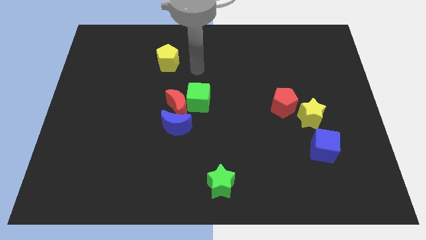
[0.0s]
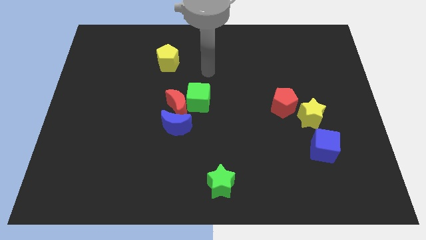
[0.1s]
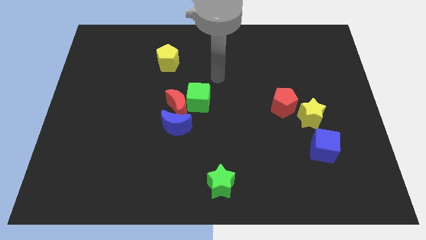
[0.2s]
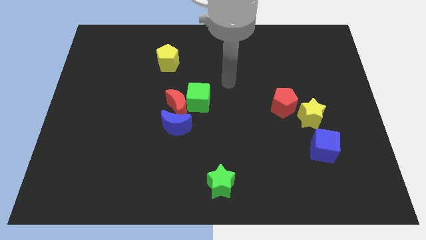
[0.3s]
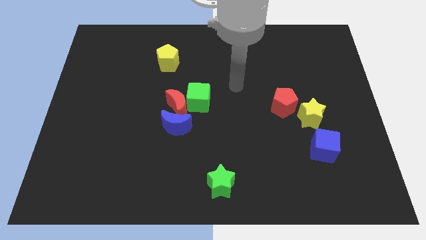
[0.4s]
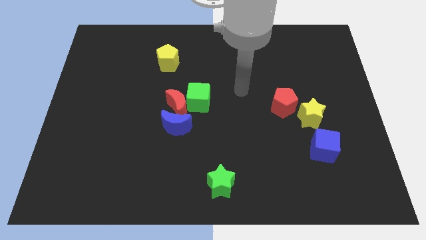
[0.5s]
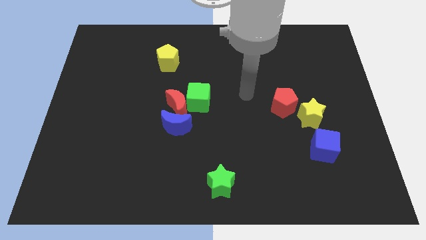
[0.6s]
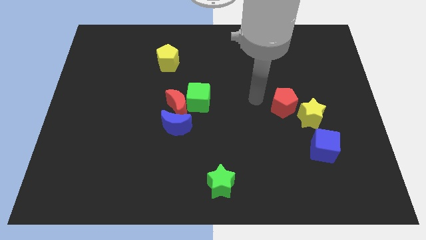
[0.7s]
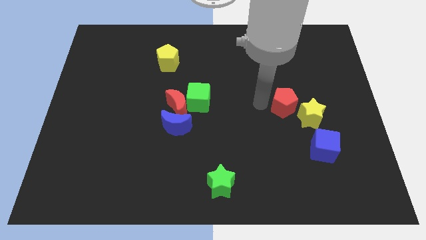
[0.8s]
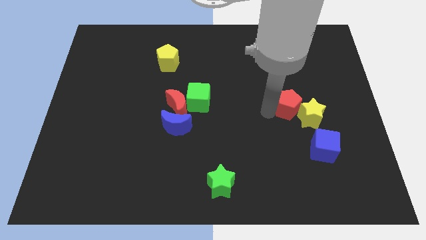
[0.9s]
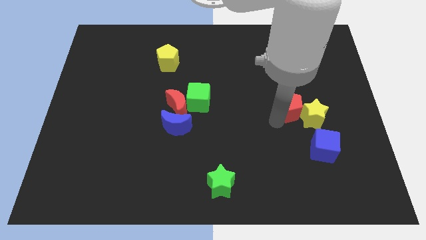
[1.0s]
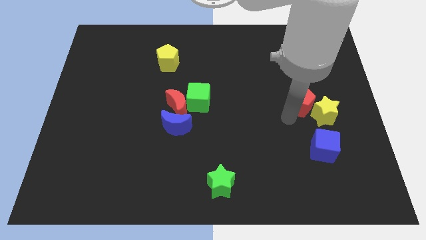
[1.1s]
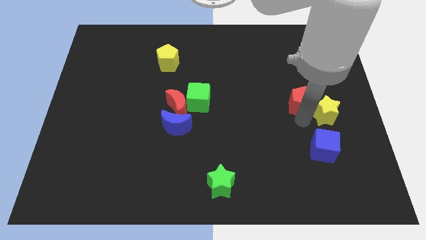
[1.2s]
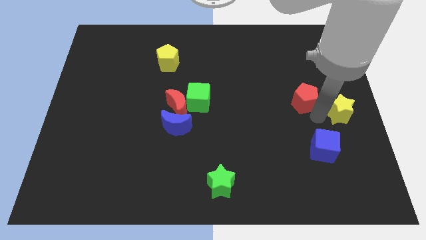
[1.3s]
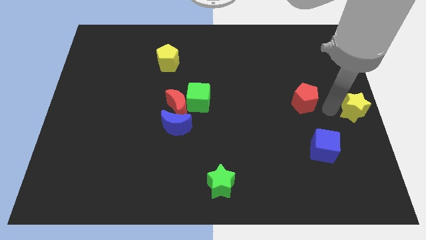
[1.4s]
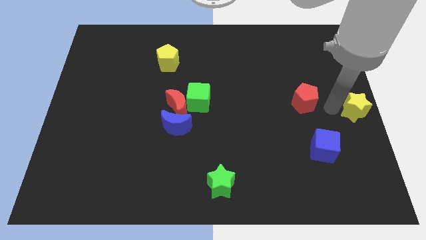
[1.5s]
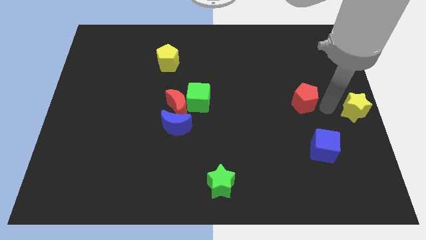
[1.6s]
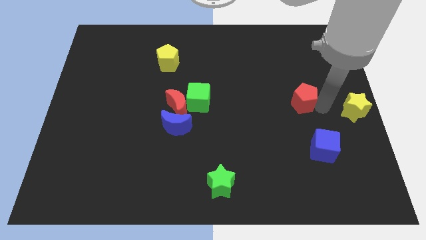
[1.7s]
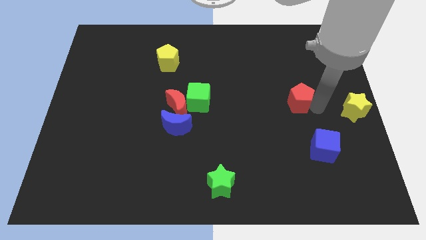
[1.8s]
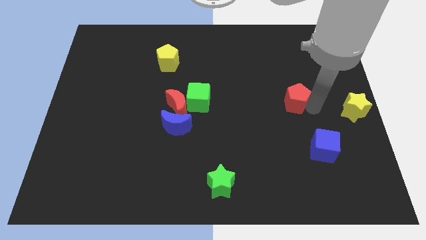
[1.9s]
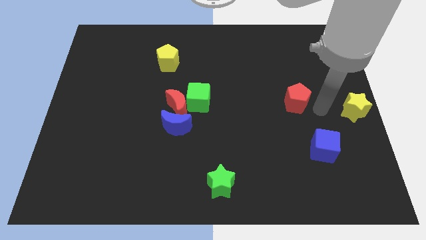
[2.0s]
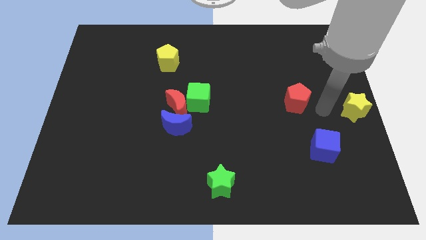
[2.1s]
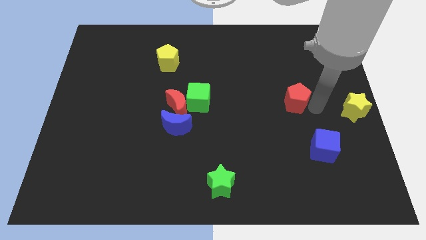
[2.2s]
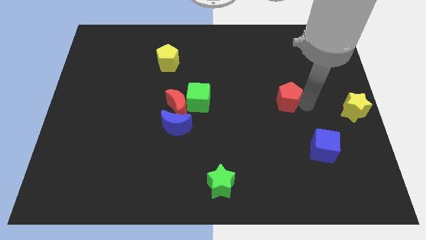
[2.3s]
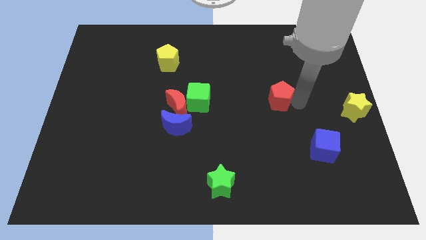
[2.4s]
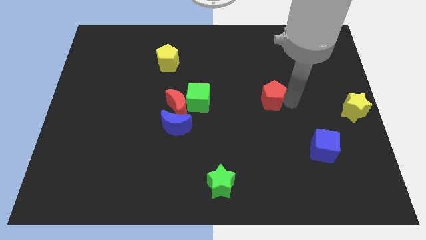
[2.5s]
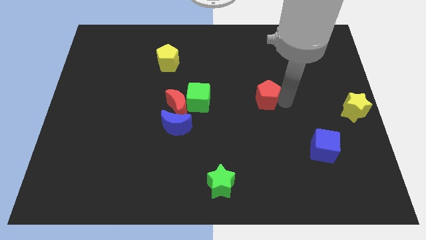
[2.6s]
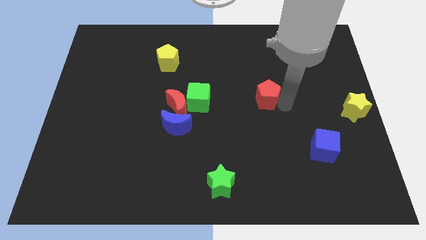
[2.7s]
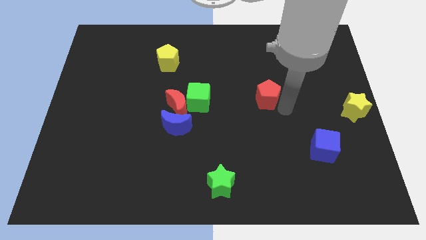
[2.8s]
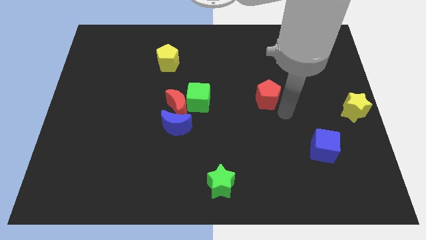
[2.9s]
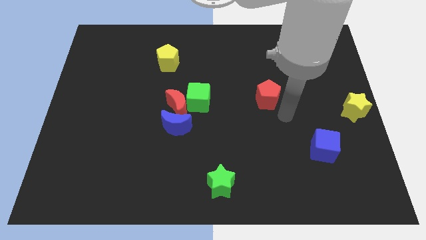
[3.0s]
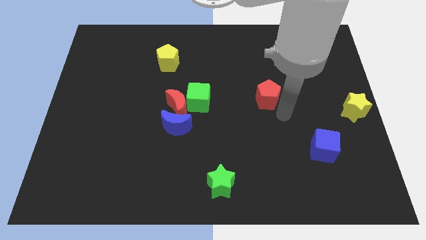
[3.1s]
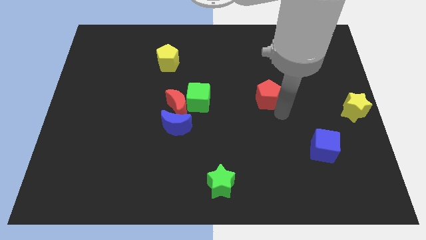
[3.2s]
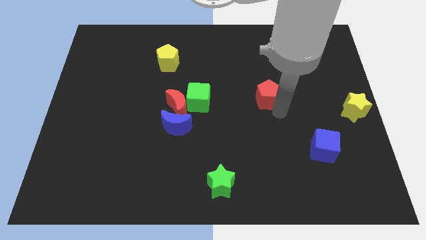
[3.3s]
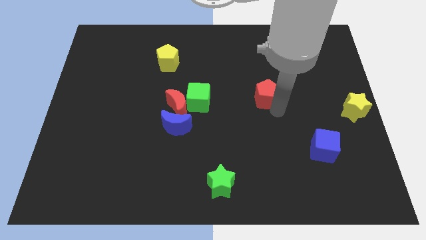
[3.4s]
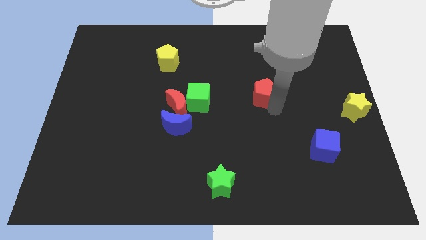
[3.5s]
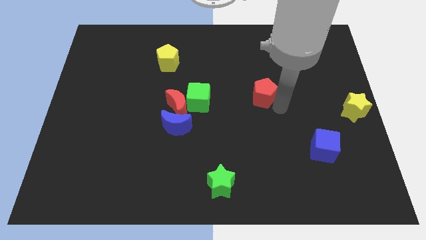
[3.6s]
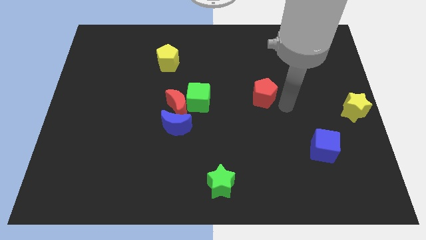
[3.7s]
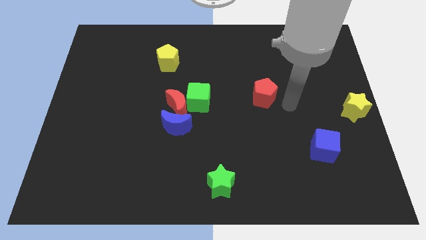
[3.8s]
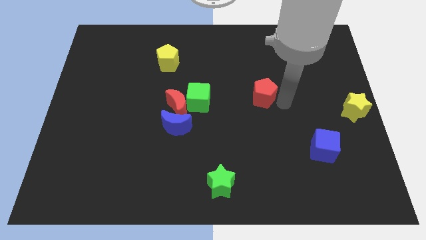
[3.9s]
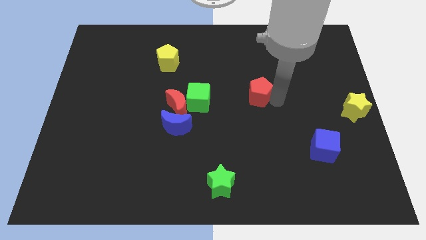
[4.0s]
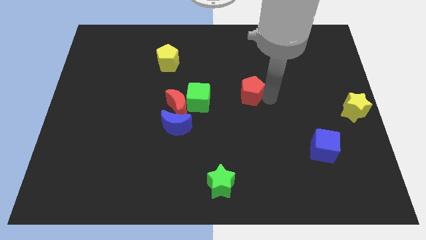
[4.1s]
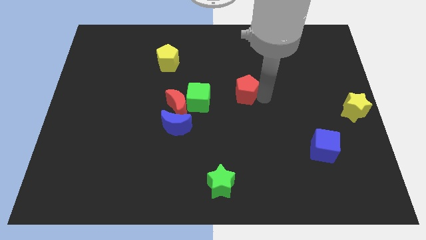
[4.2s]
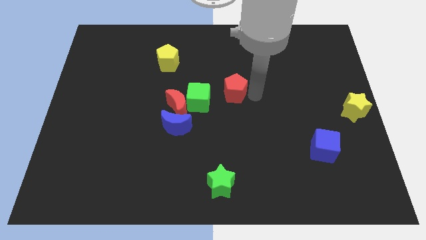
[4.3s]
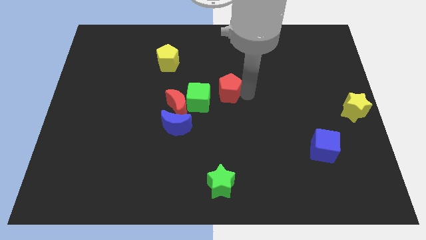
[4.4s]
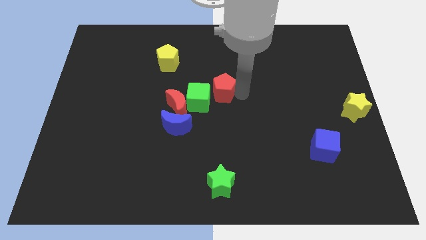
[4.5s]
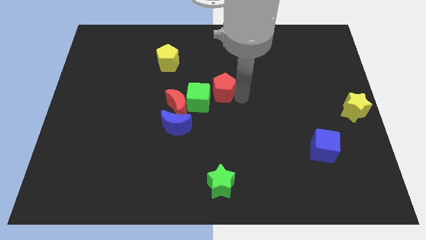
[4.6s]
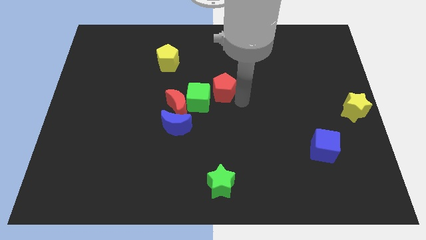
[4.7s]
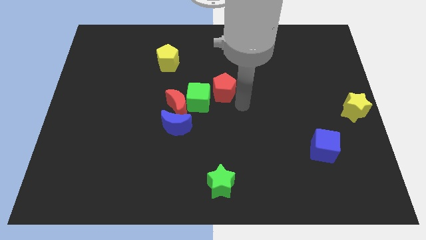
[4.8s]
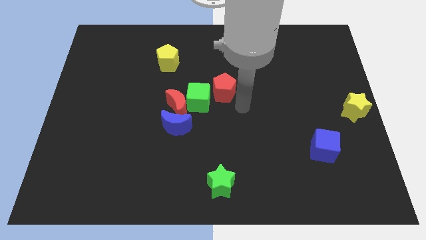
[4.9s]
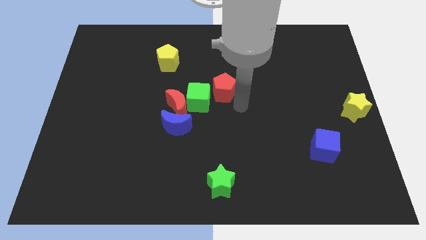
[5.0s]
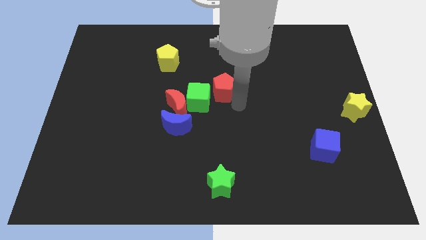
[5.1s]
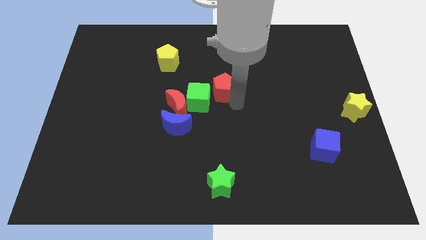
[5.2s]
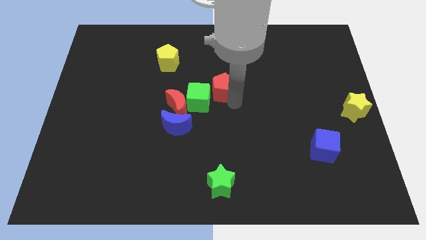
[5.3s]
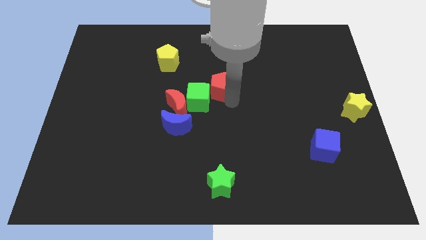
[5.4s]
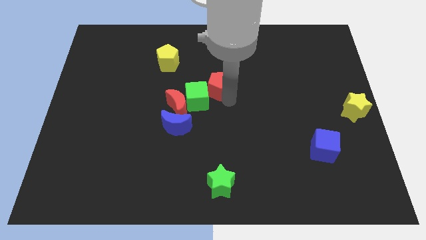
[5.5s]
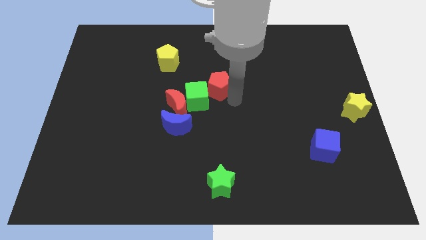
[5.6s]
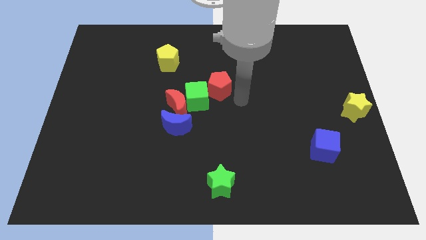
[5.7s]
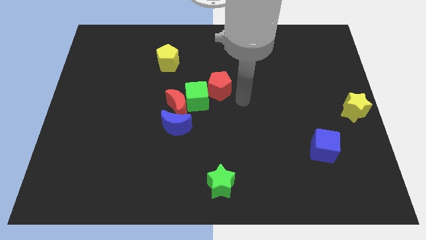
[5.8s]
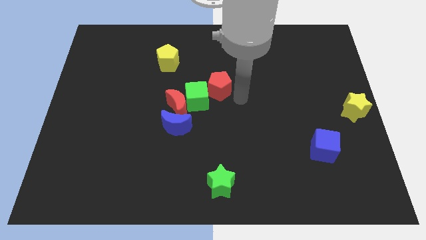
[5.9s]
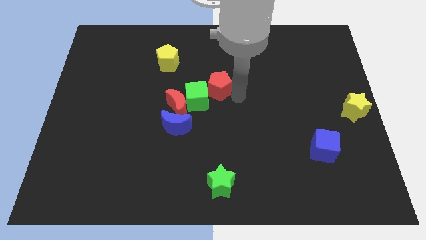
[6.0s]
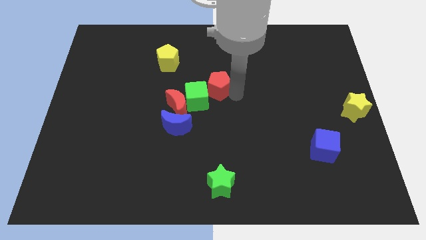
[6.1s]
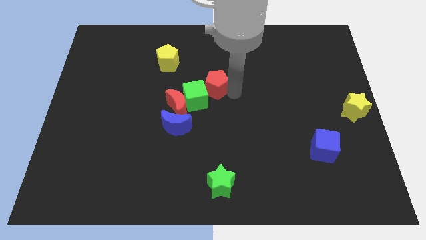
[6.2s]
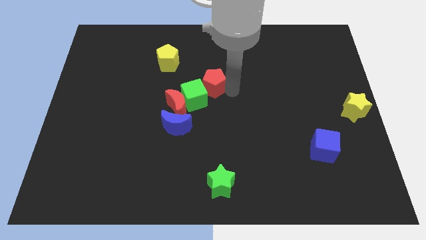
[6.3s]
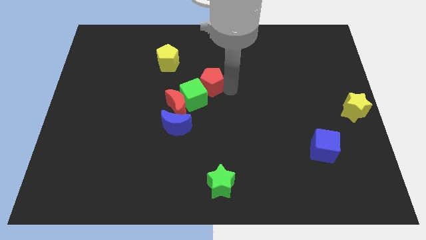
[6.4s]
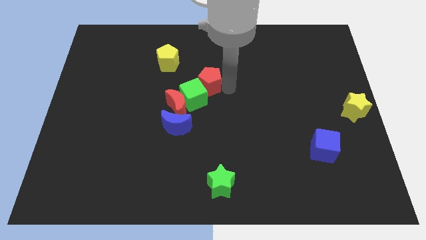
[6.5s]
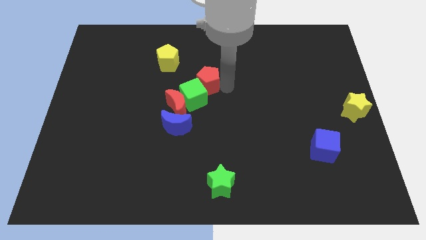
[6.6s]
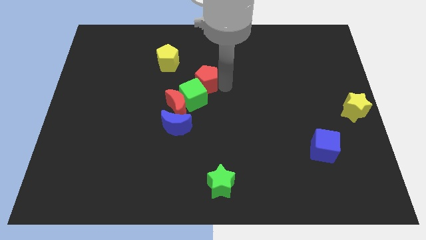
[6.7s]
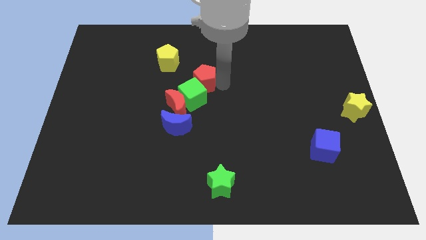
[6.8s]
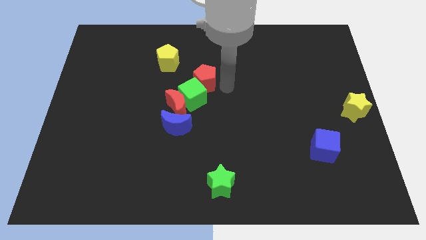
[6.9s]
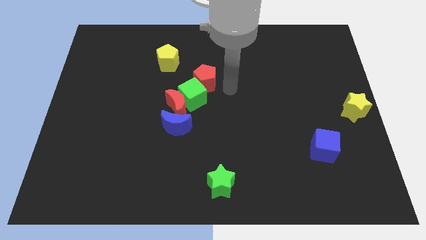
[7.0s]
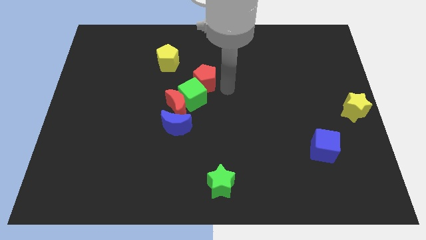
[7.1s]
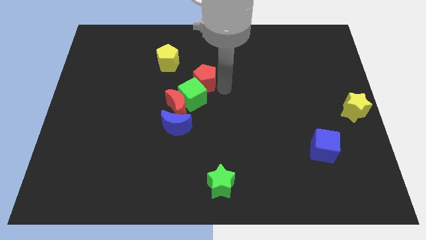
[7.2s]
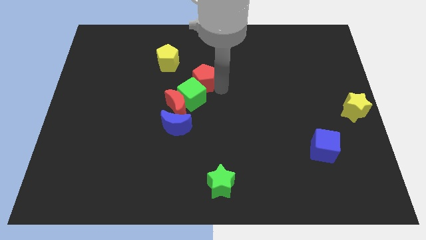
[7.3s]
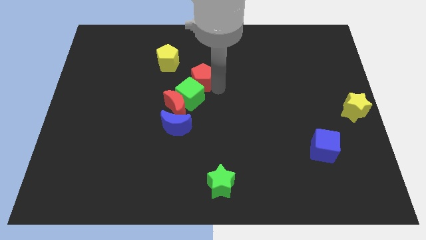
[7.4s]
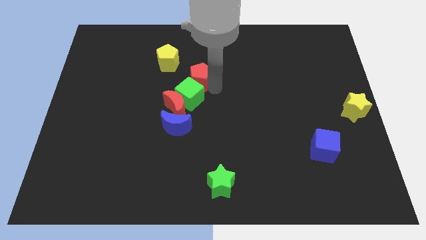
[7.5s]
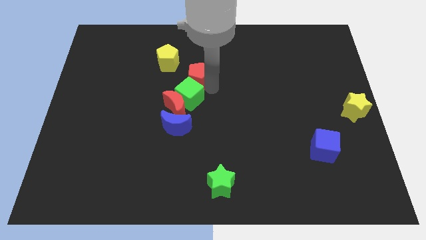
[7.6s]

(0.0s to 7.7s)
slide the red pentagon to the top side of the red moon
